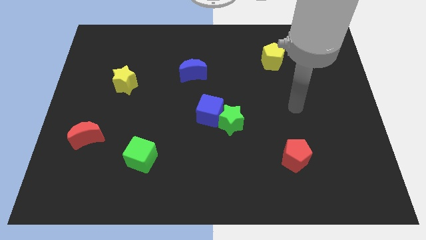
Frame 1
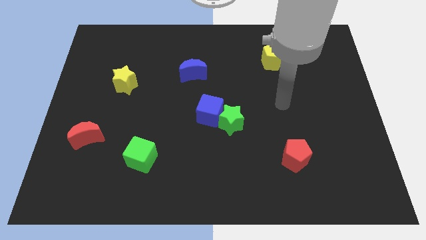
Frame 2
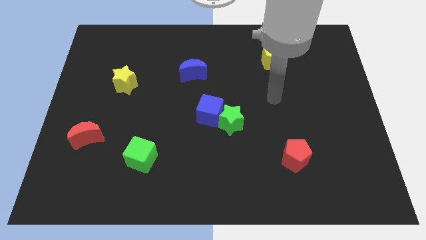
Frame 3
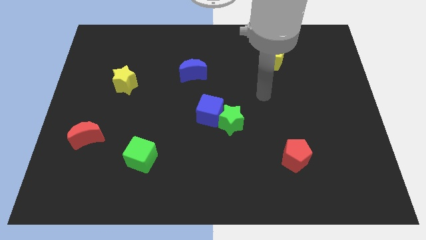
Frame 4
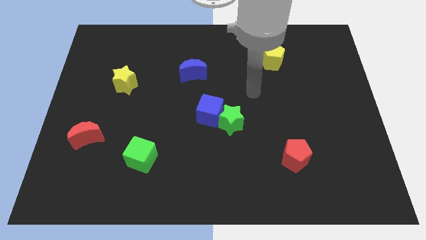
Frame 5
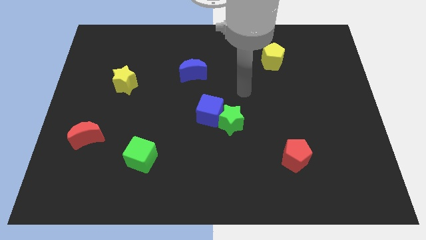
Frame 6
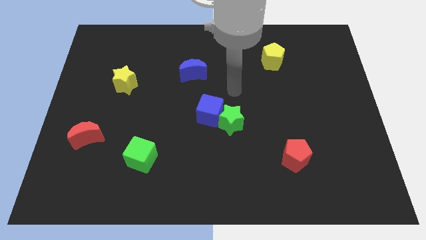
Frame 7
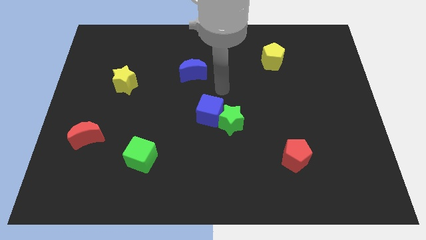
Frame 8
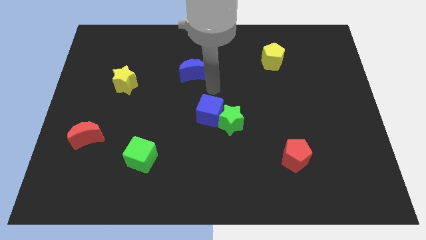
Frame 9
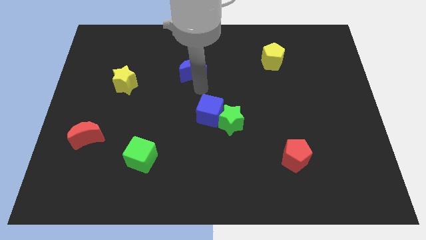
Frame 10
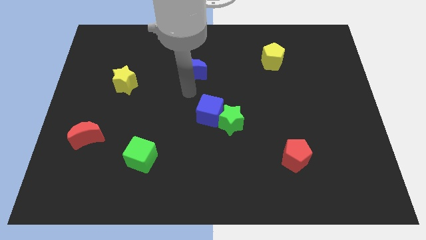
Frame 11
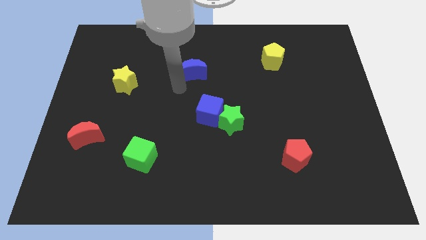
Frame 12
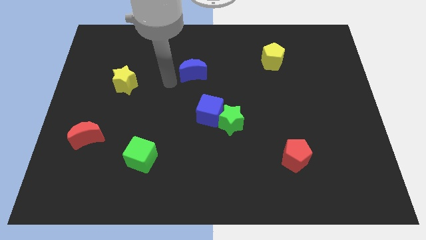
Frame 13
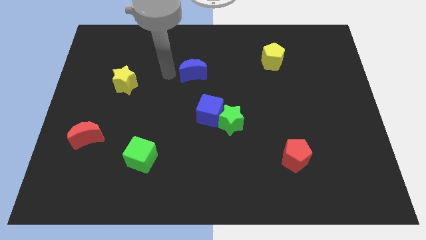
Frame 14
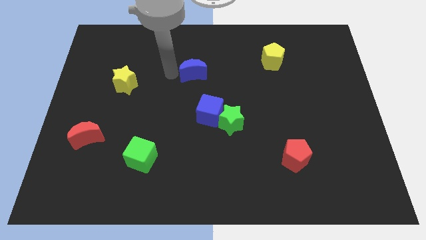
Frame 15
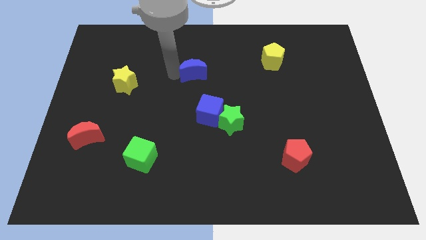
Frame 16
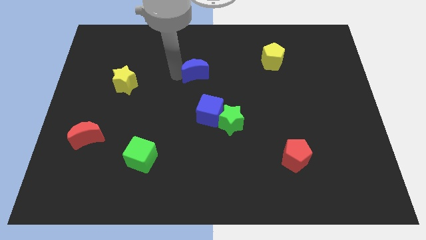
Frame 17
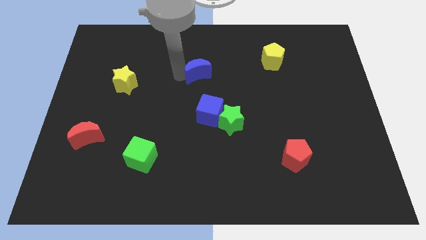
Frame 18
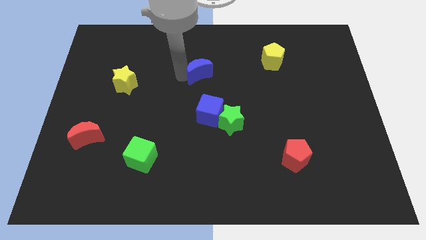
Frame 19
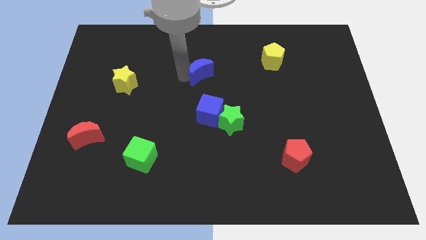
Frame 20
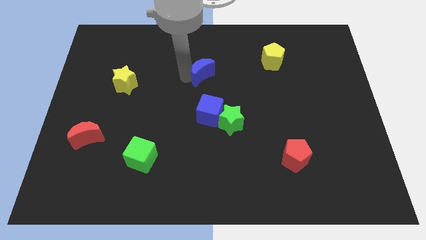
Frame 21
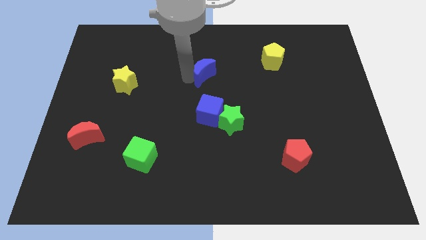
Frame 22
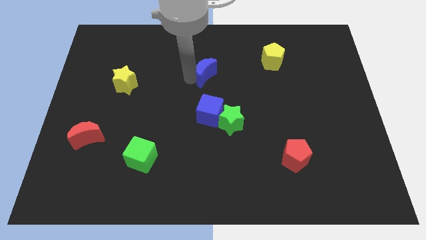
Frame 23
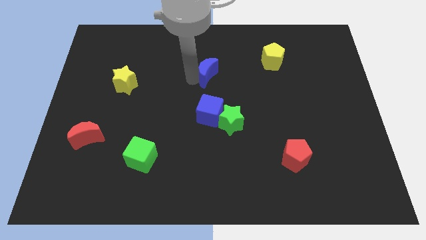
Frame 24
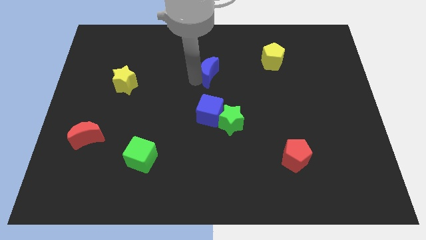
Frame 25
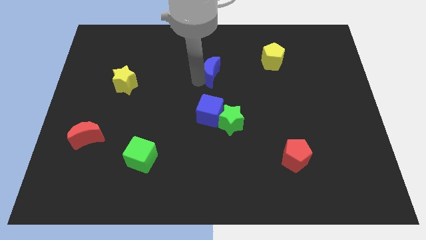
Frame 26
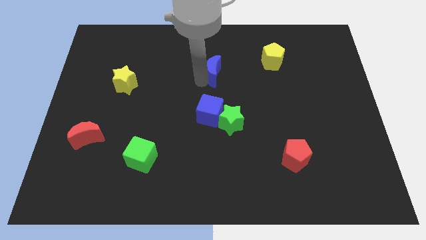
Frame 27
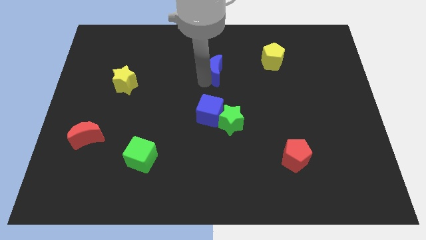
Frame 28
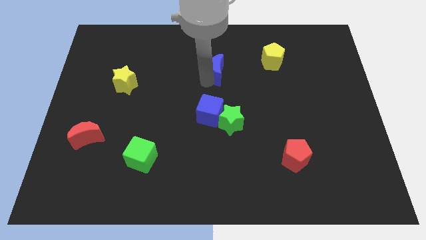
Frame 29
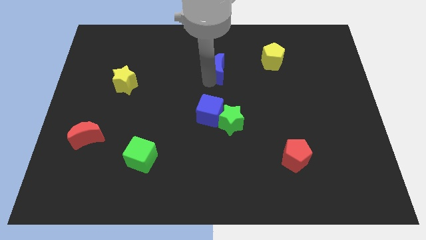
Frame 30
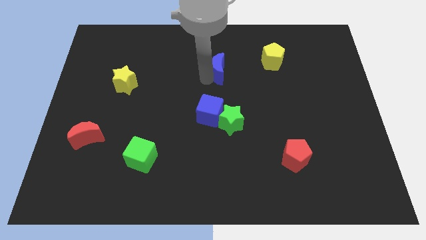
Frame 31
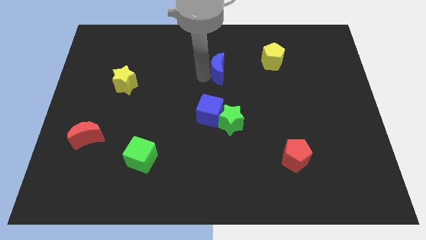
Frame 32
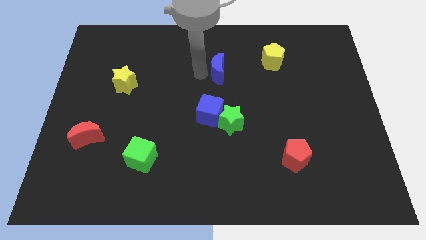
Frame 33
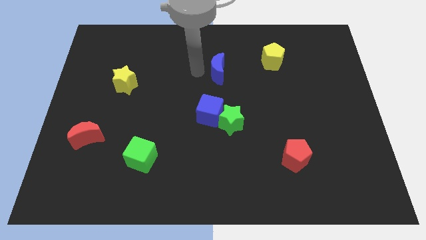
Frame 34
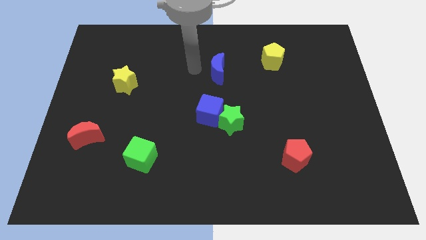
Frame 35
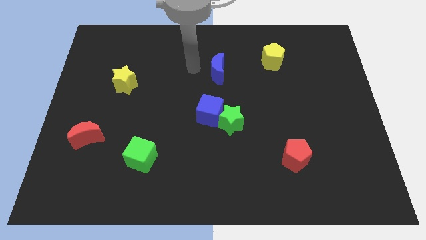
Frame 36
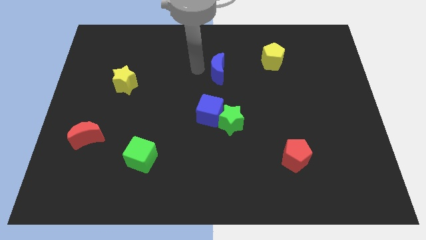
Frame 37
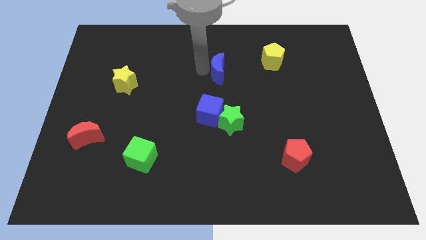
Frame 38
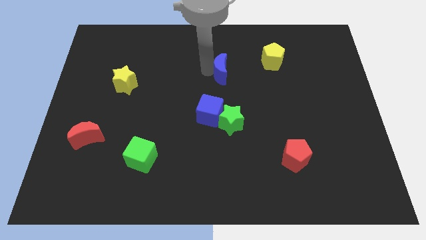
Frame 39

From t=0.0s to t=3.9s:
slightly move the blue moon right

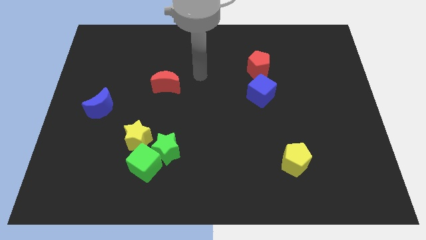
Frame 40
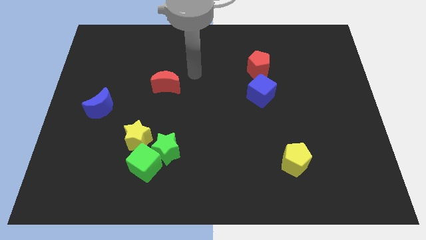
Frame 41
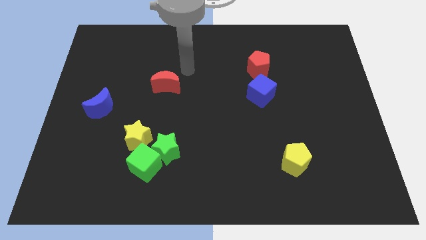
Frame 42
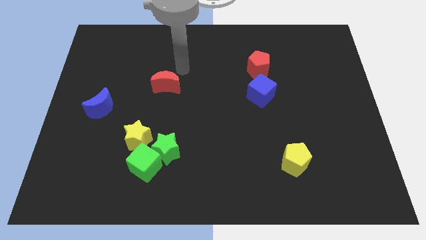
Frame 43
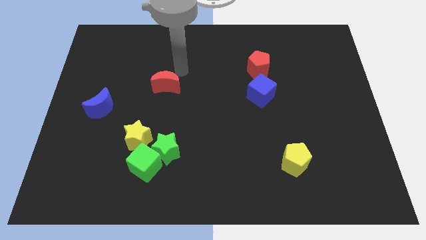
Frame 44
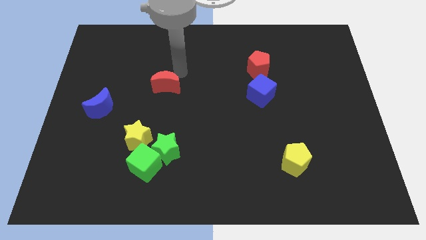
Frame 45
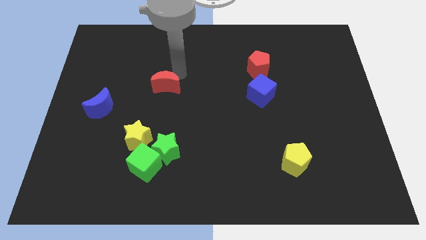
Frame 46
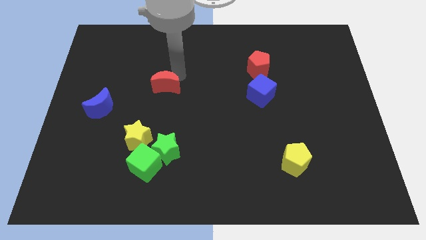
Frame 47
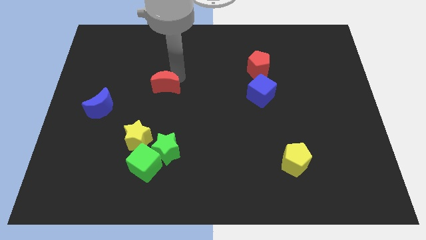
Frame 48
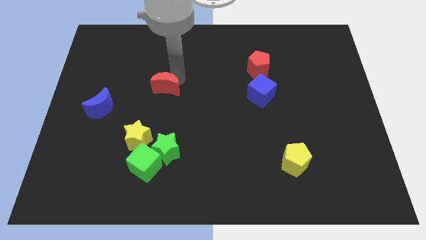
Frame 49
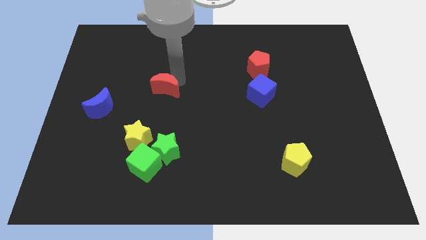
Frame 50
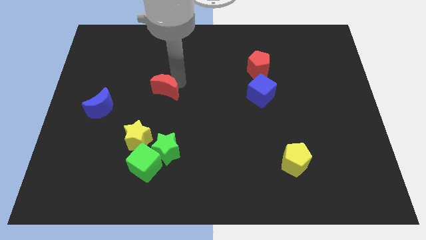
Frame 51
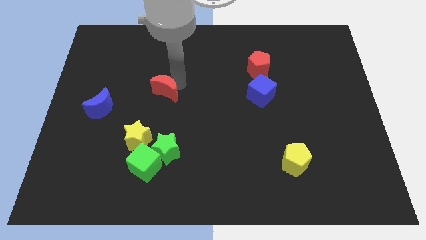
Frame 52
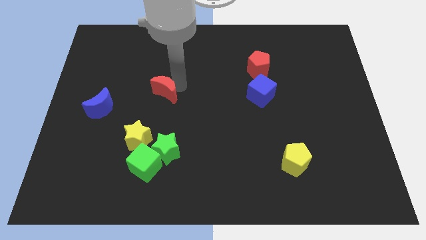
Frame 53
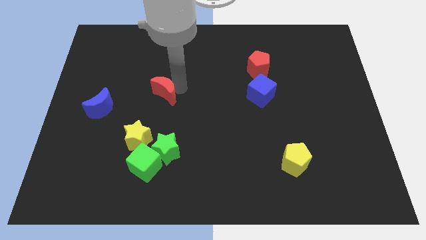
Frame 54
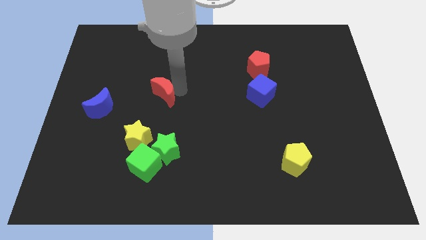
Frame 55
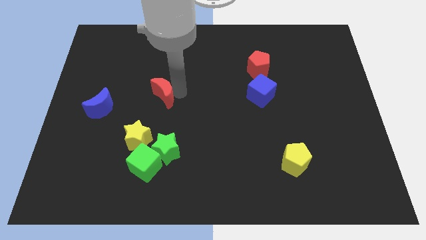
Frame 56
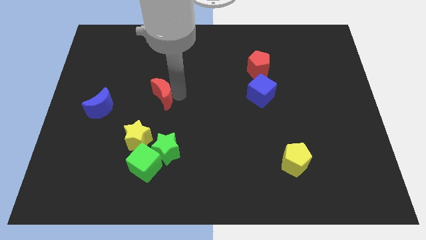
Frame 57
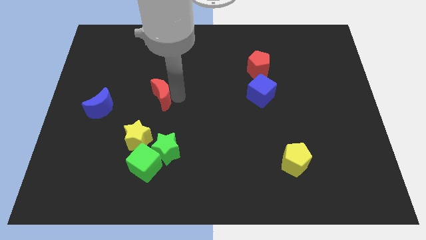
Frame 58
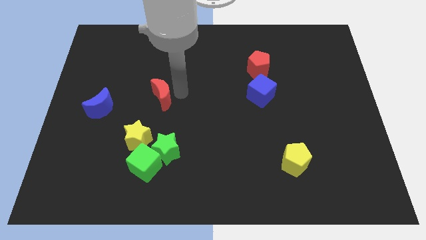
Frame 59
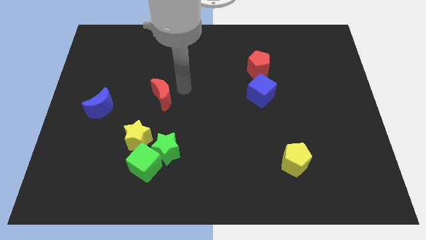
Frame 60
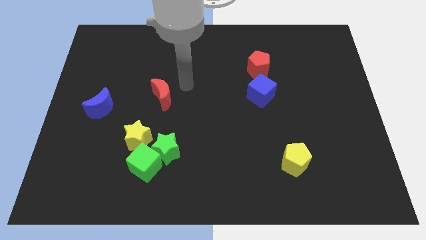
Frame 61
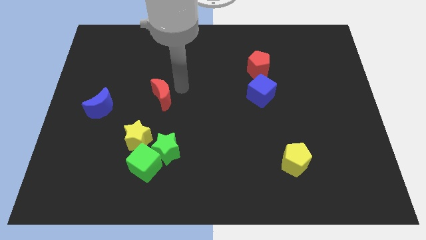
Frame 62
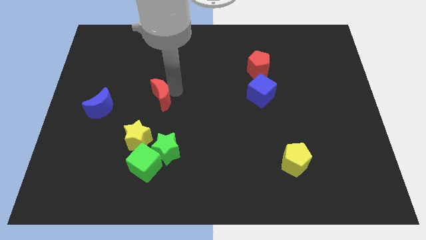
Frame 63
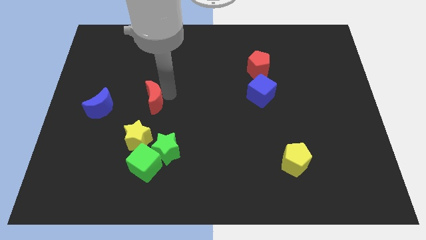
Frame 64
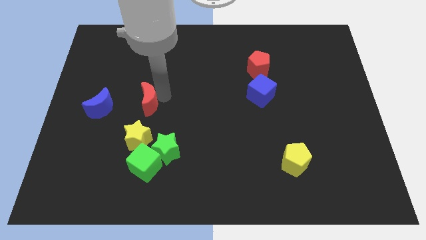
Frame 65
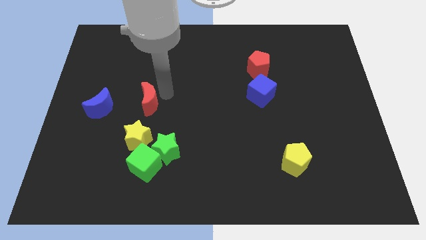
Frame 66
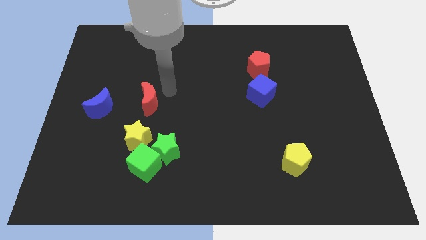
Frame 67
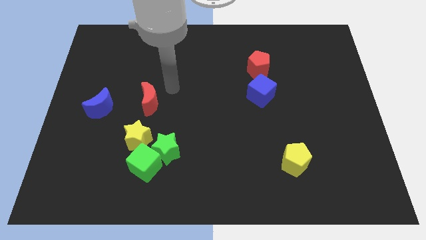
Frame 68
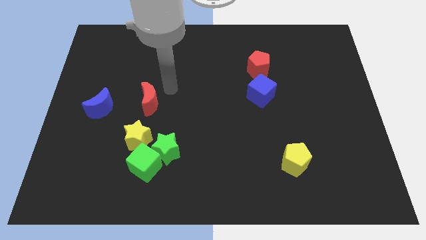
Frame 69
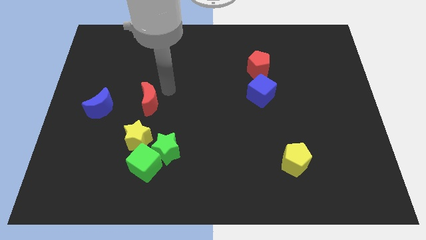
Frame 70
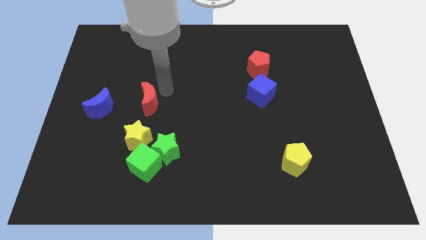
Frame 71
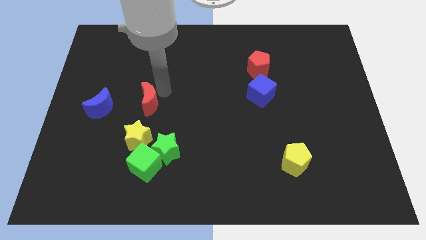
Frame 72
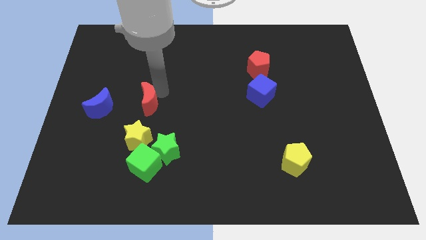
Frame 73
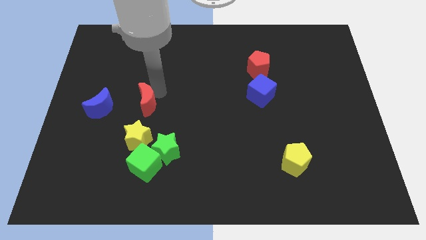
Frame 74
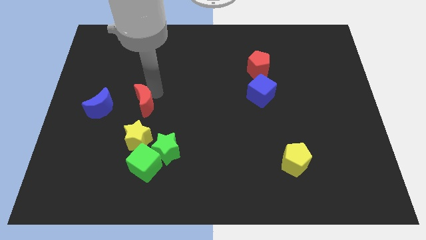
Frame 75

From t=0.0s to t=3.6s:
slide the red moon down and then left a little bit

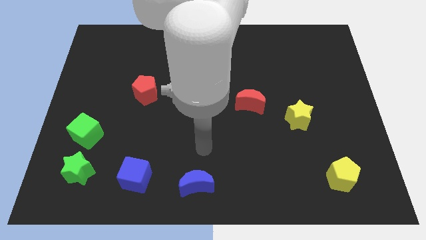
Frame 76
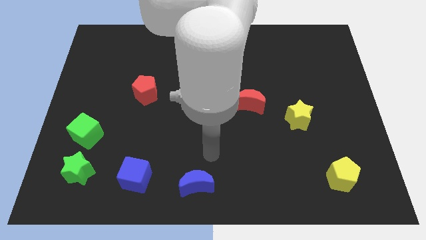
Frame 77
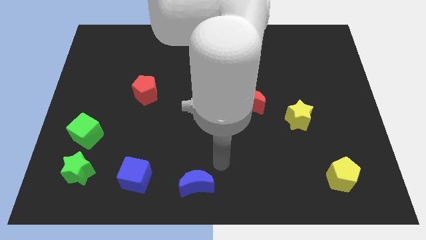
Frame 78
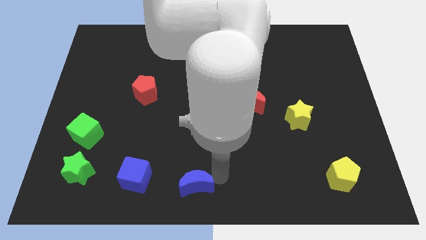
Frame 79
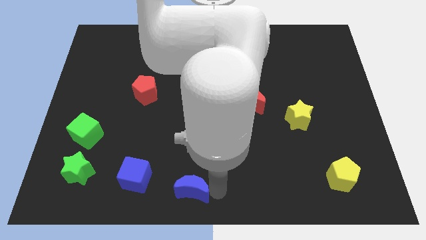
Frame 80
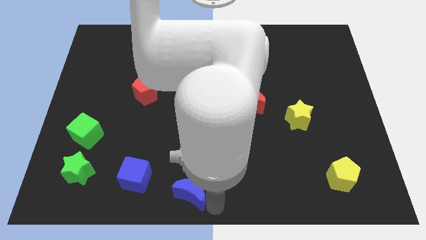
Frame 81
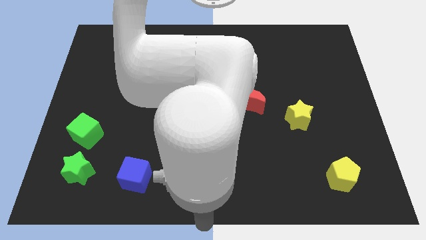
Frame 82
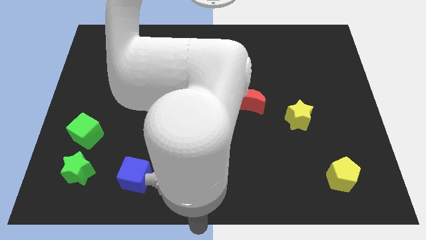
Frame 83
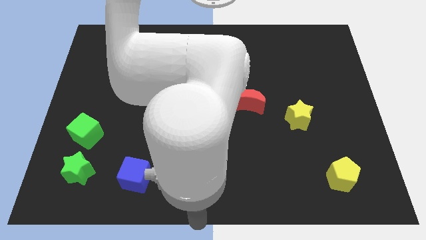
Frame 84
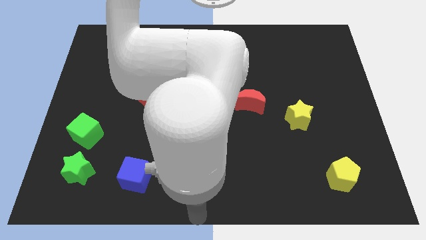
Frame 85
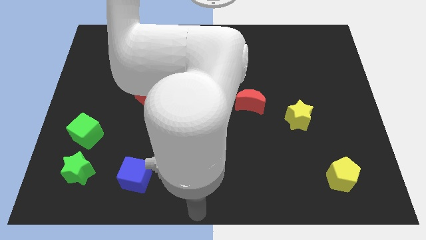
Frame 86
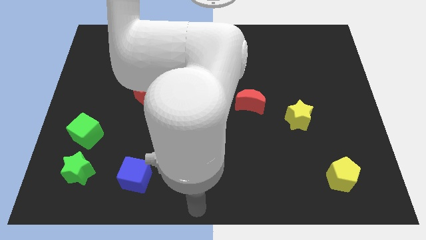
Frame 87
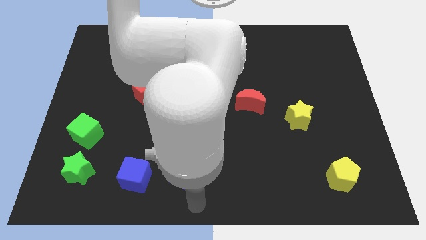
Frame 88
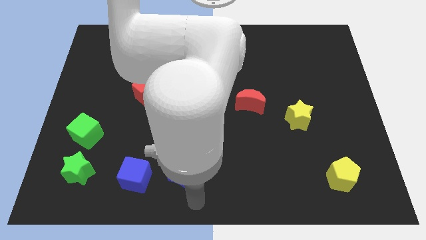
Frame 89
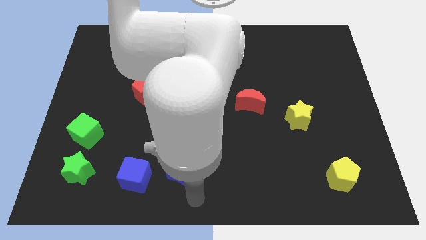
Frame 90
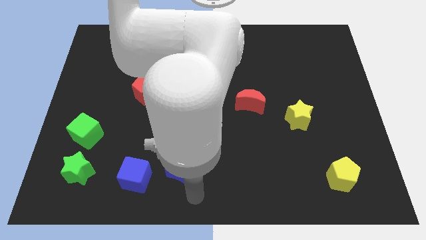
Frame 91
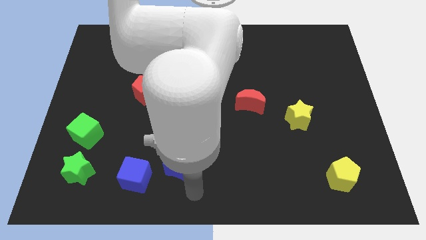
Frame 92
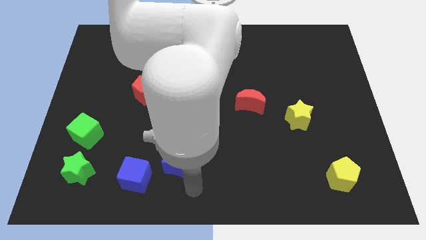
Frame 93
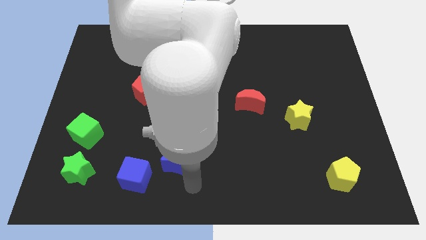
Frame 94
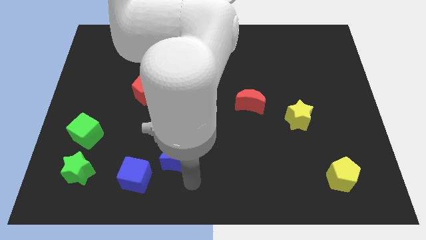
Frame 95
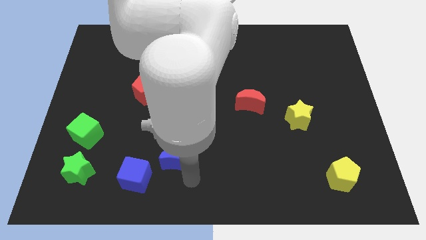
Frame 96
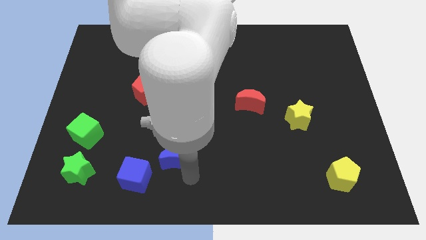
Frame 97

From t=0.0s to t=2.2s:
slightly push the blue moon upwards and to the left diagonally
